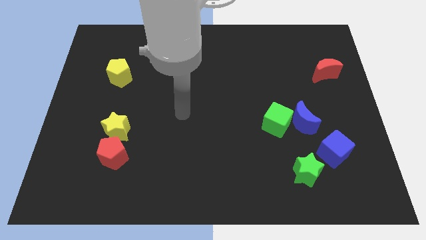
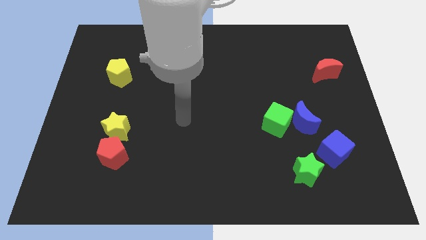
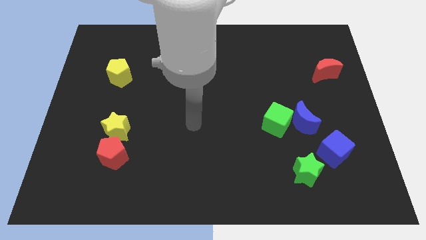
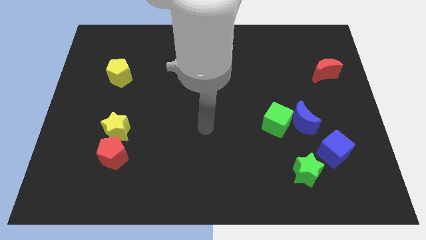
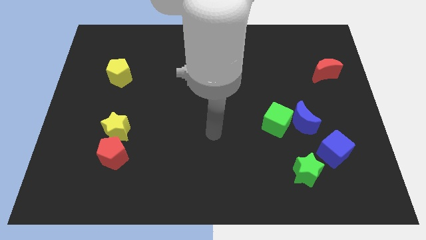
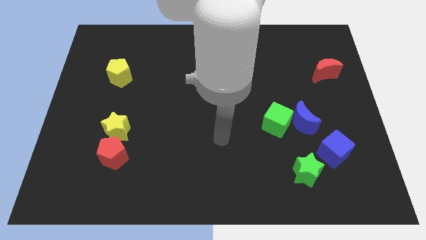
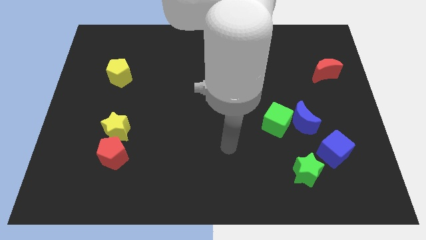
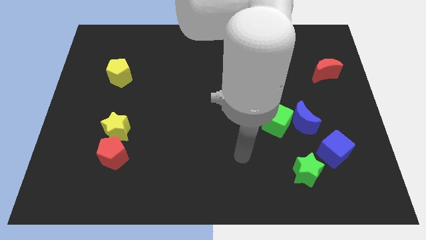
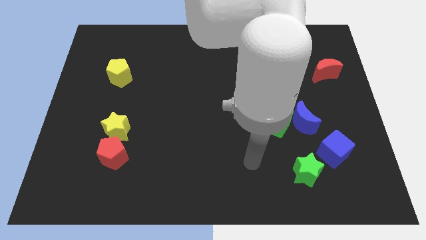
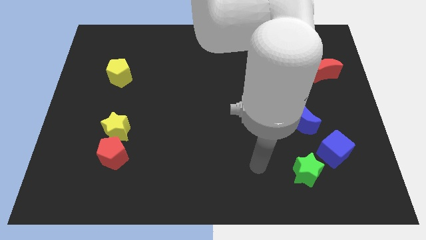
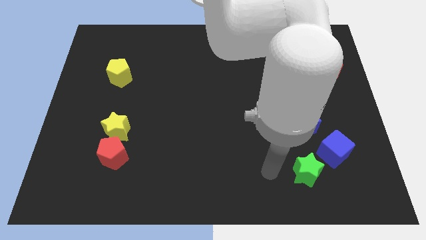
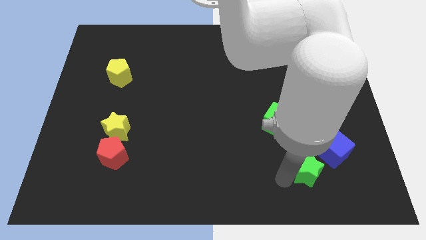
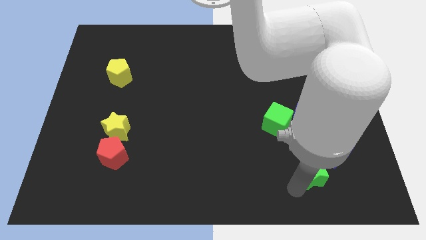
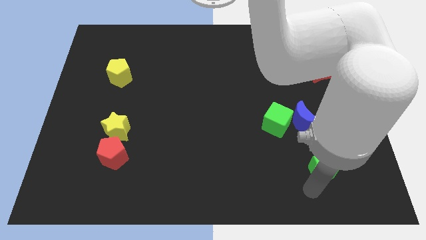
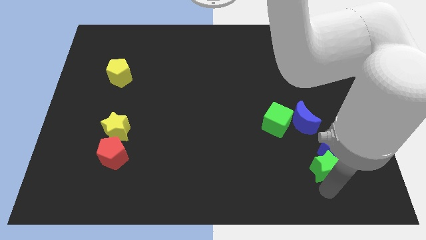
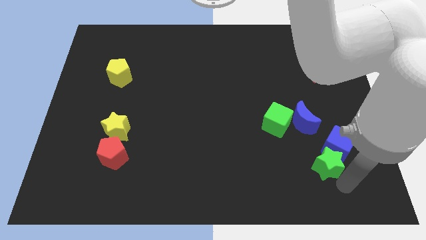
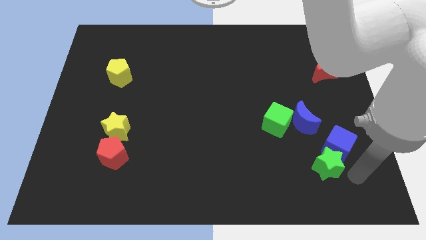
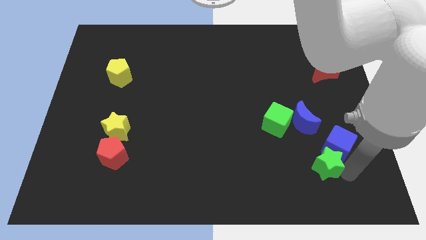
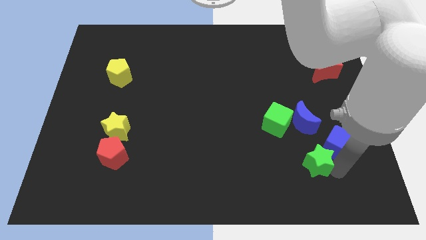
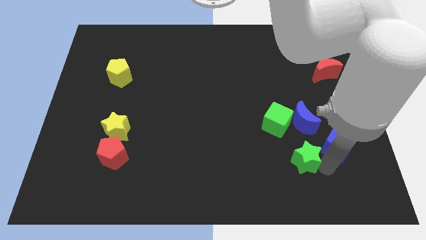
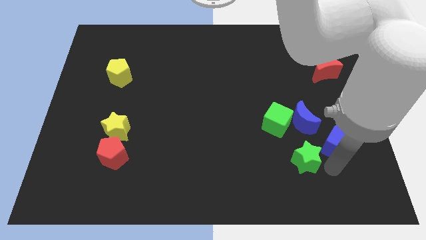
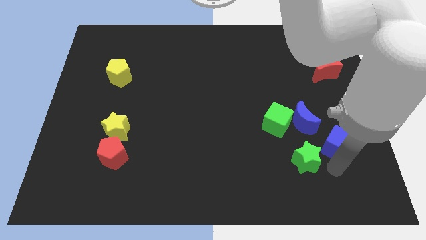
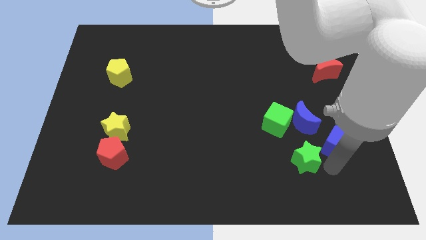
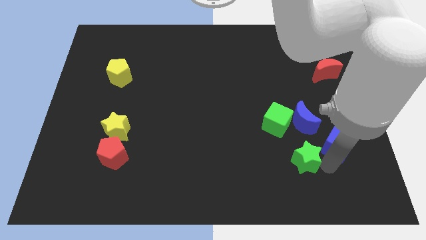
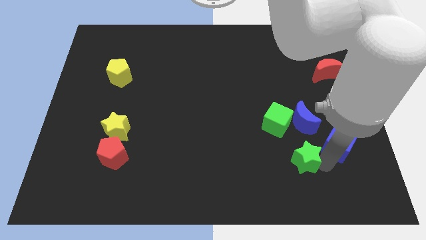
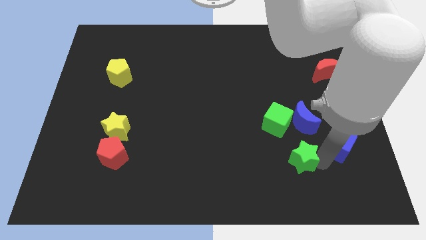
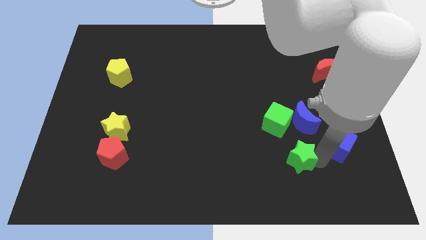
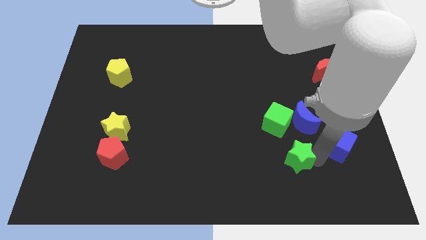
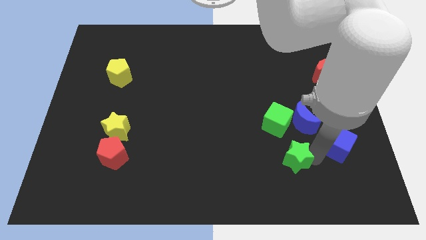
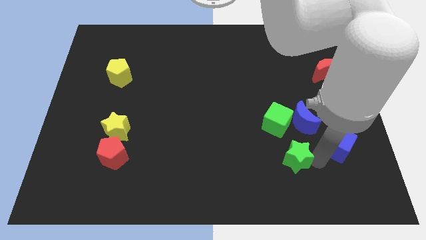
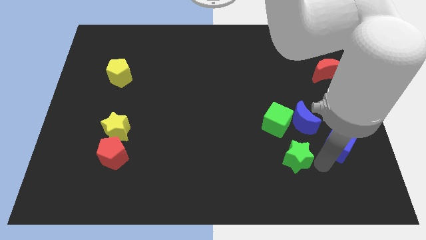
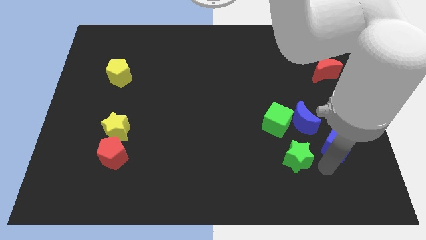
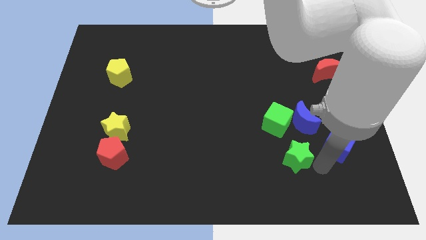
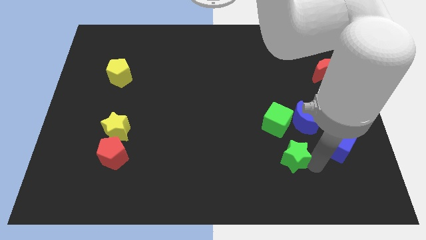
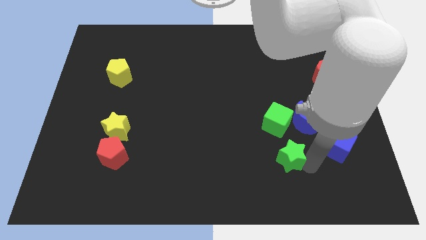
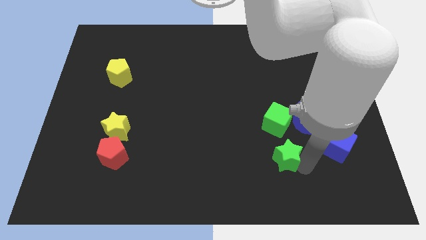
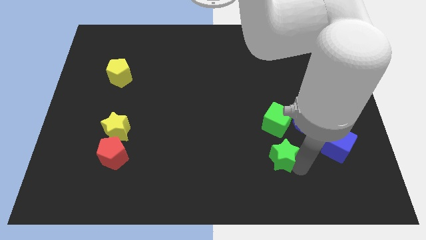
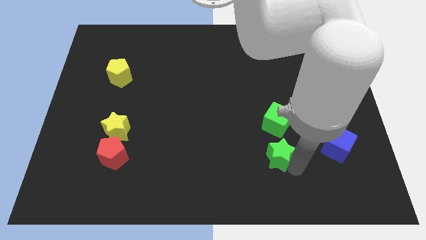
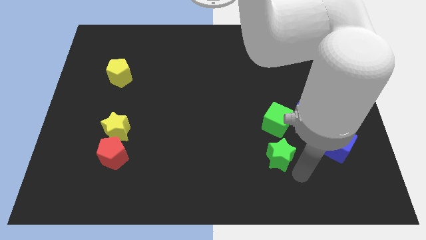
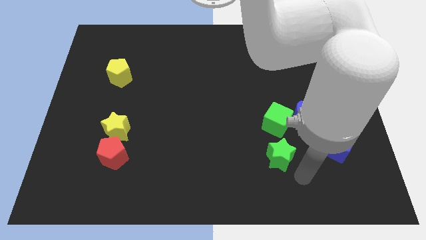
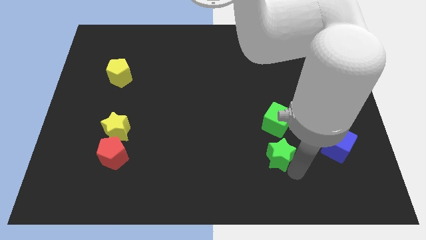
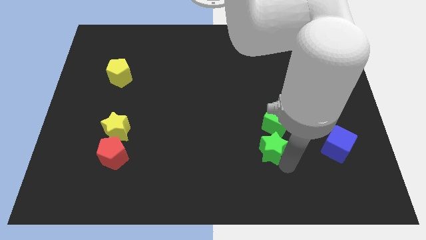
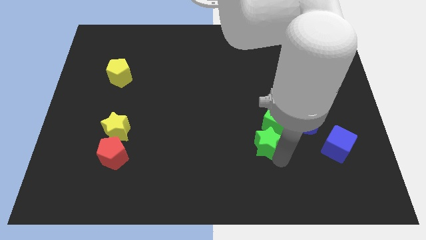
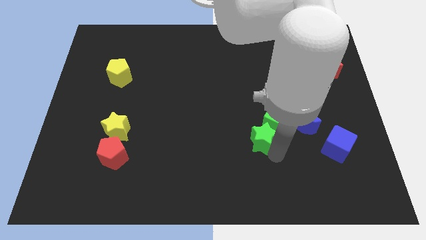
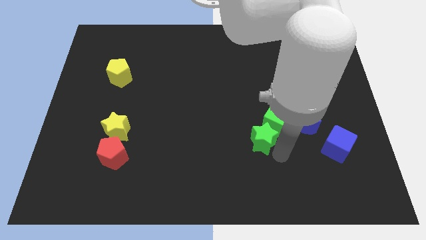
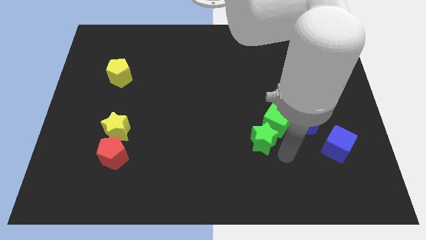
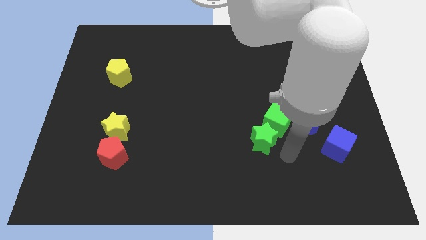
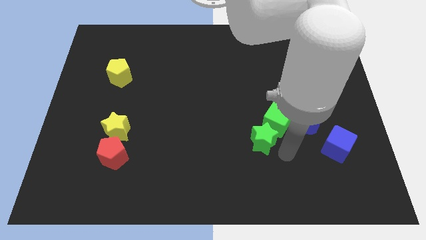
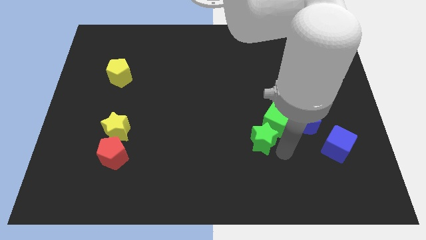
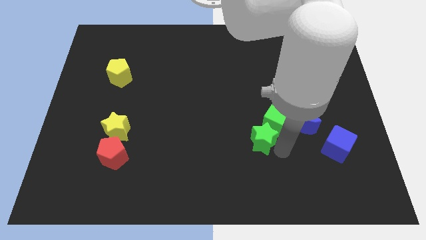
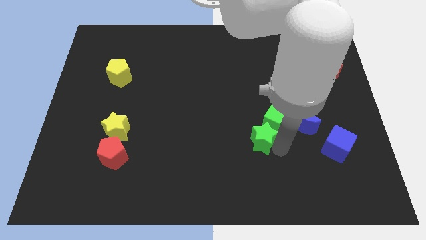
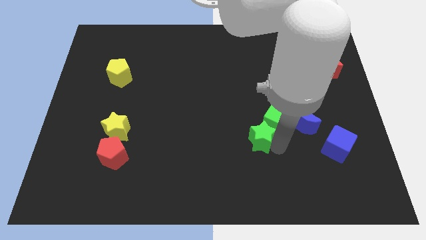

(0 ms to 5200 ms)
slide the green star just left of the green cube

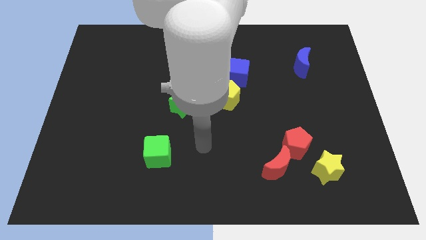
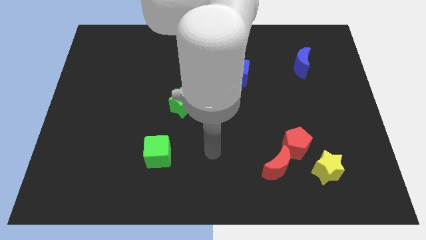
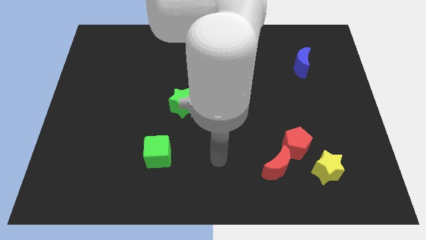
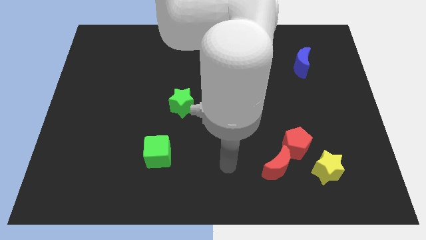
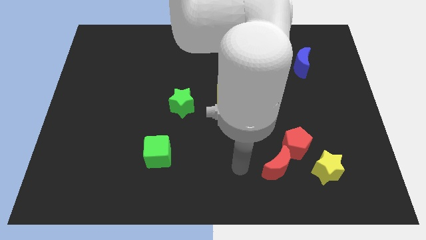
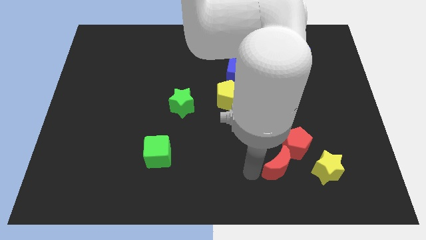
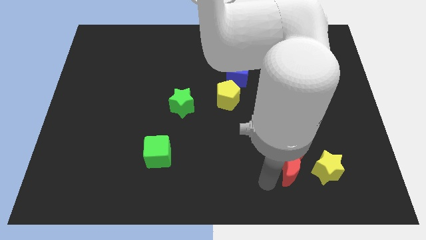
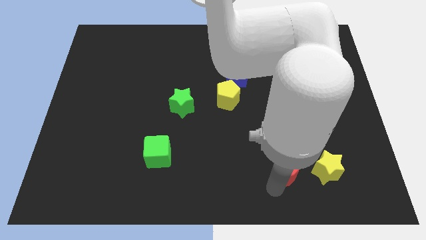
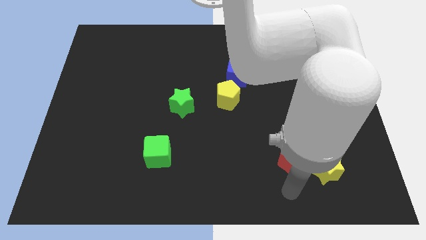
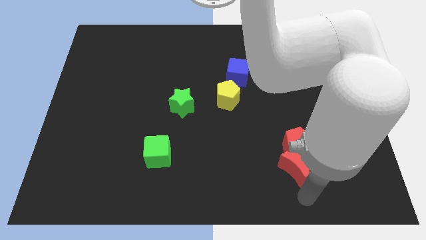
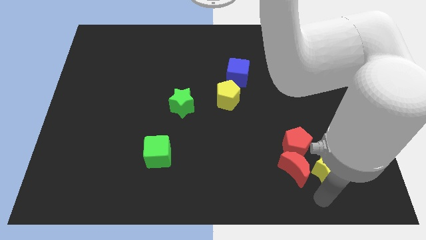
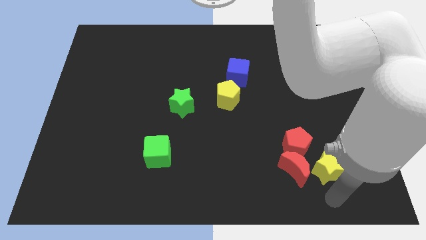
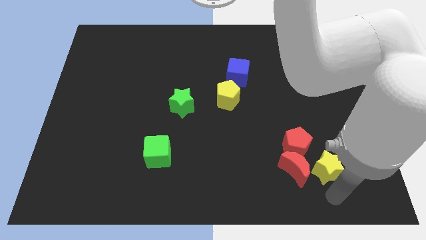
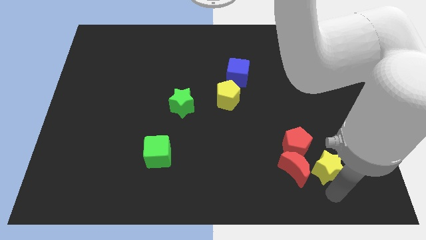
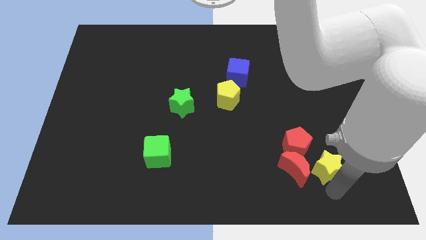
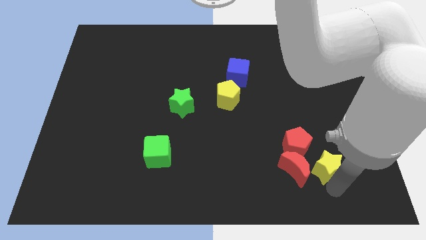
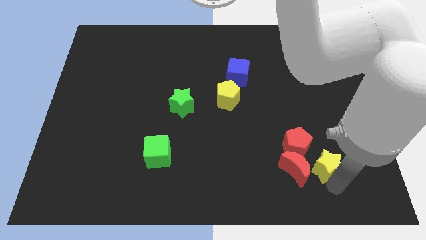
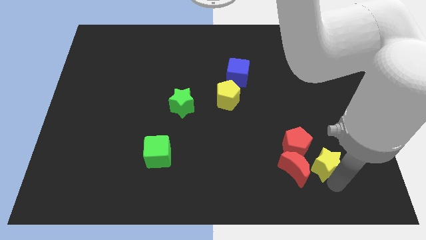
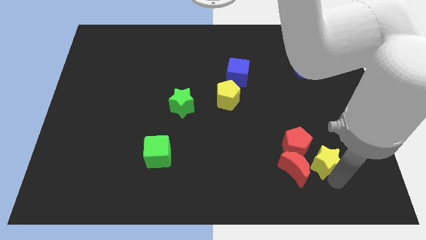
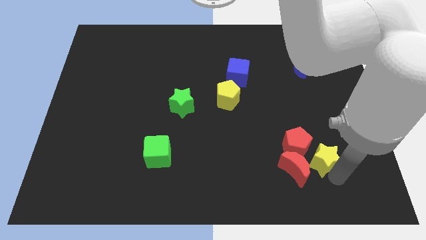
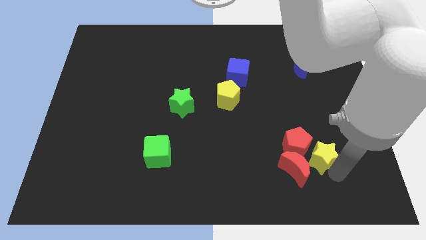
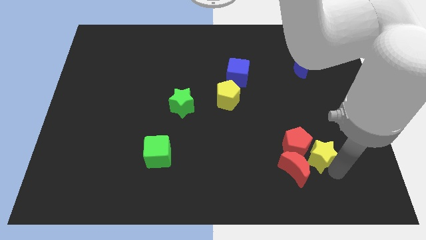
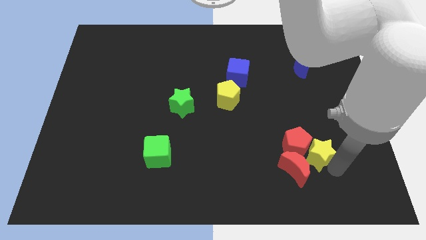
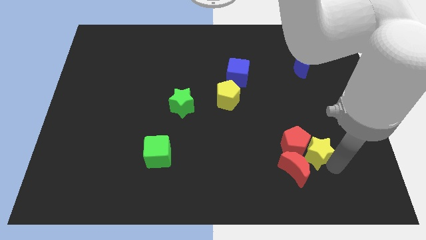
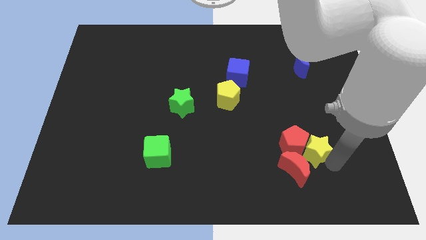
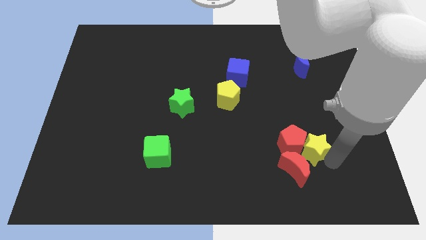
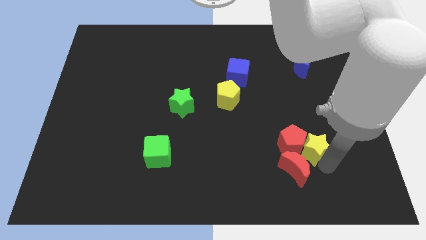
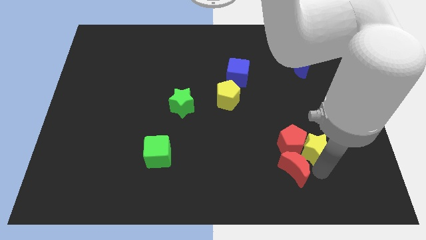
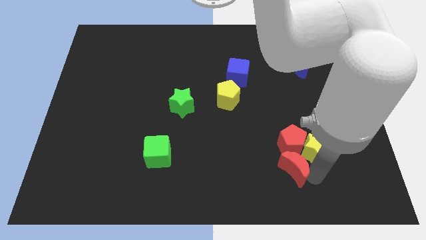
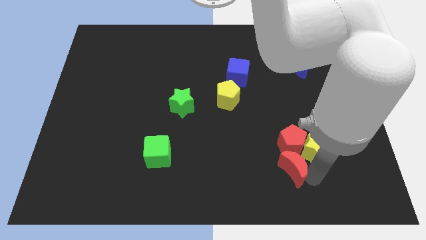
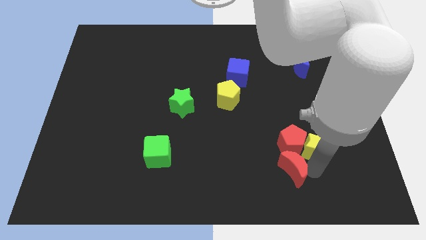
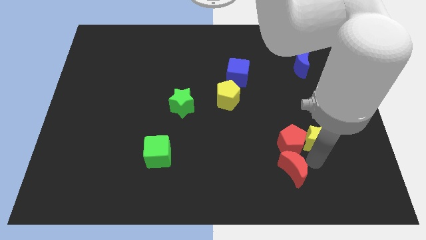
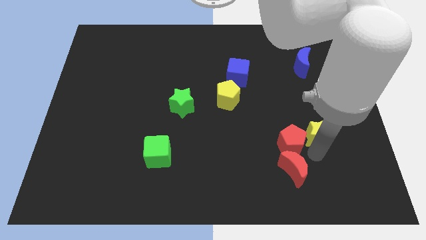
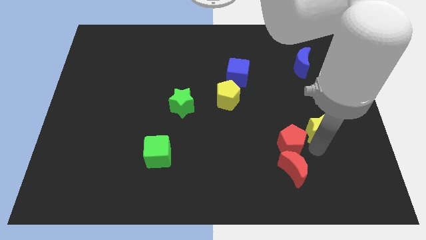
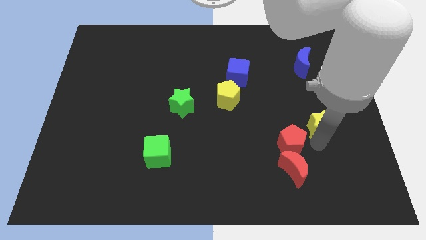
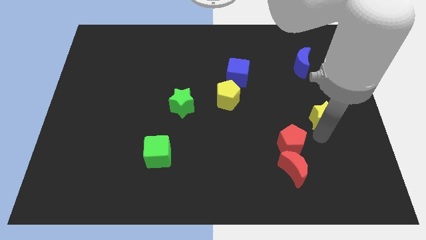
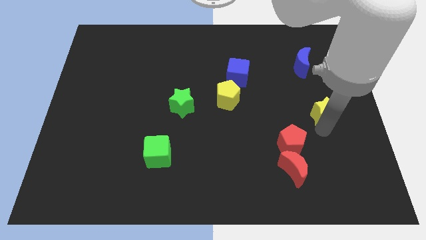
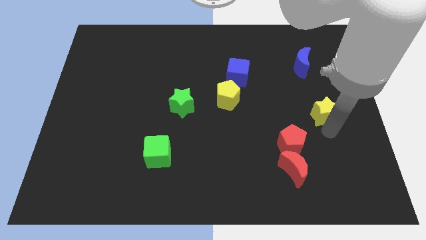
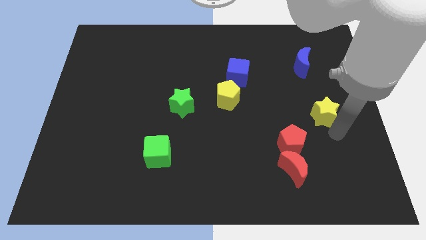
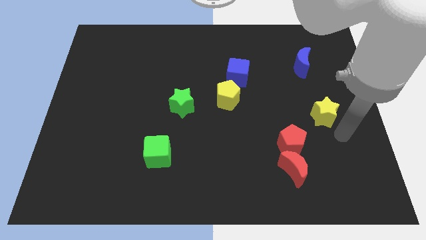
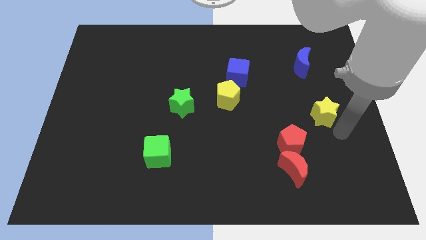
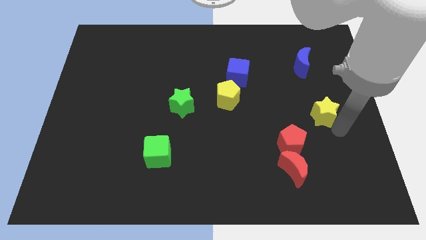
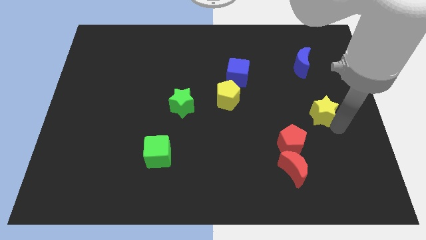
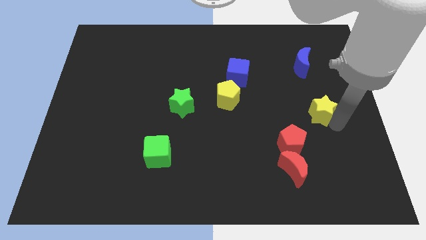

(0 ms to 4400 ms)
push the yellow star to the bottom of the blue moon
